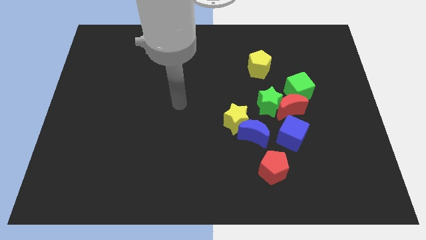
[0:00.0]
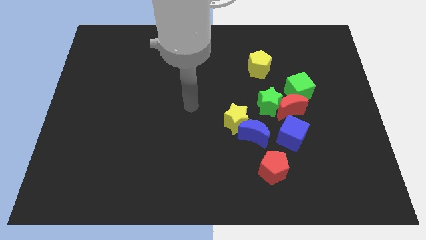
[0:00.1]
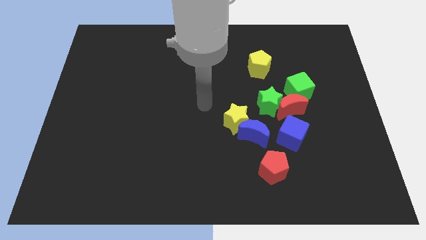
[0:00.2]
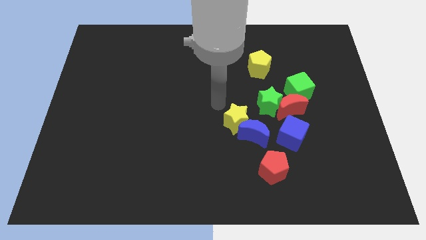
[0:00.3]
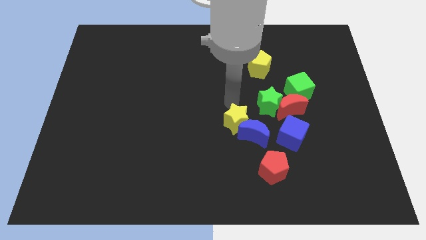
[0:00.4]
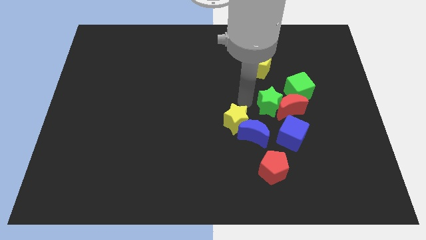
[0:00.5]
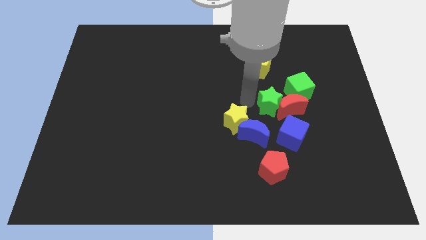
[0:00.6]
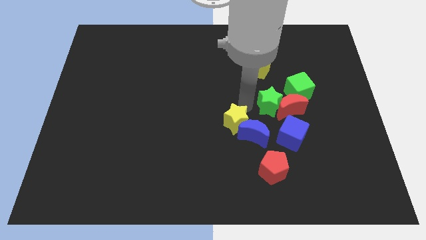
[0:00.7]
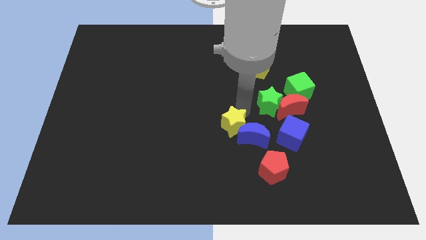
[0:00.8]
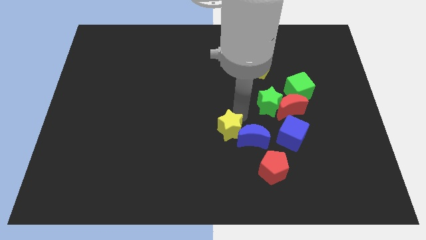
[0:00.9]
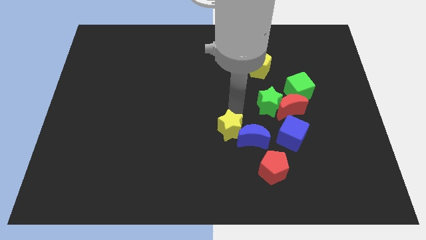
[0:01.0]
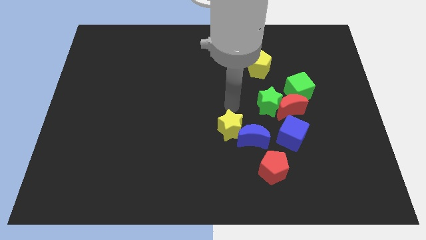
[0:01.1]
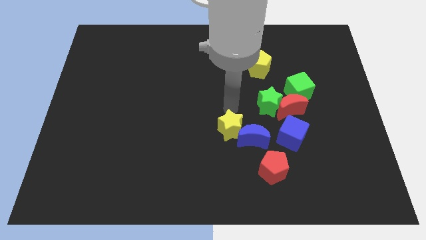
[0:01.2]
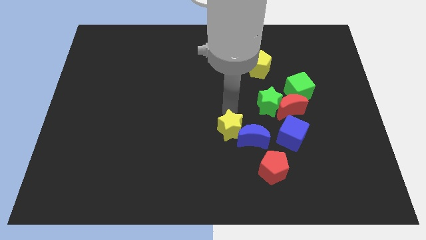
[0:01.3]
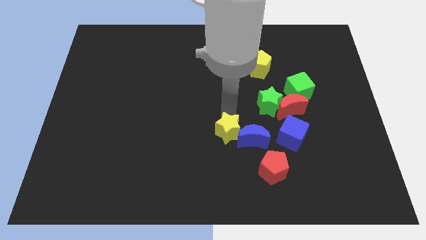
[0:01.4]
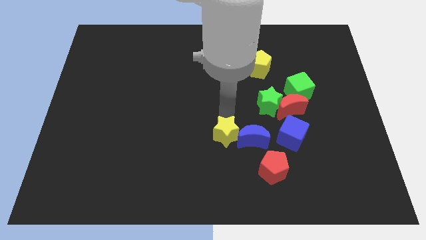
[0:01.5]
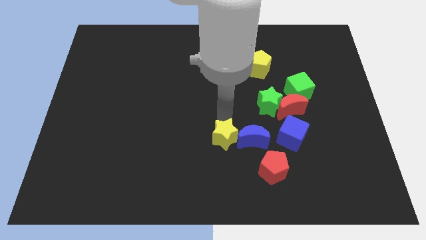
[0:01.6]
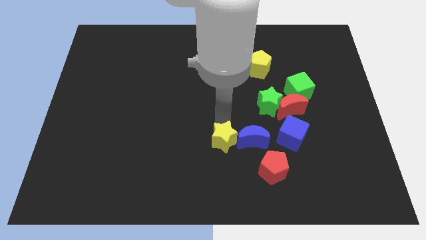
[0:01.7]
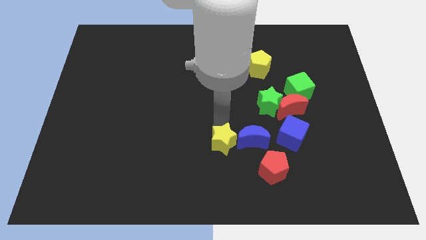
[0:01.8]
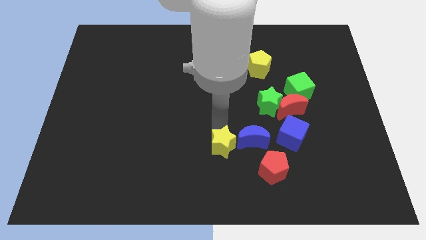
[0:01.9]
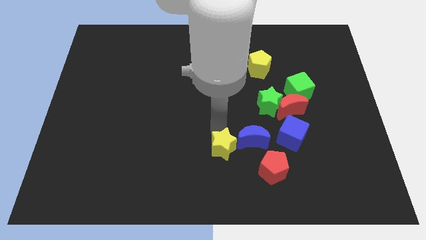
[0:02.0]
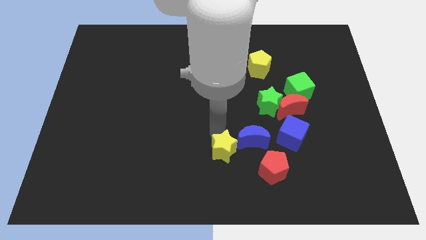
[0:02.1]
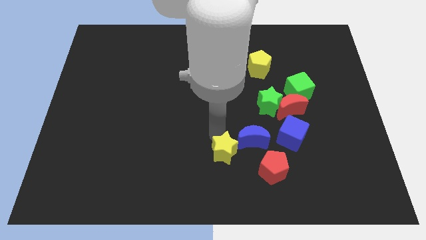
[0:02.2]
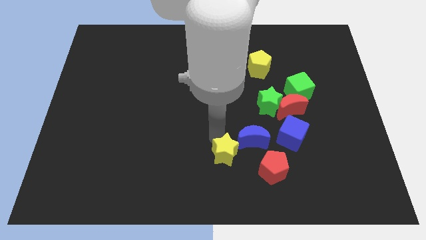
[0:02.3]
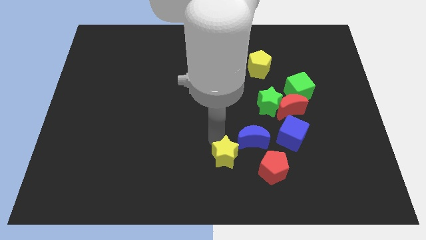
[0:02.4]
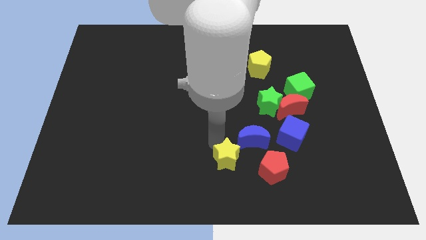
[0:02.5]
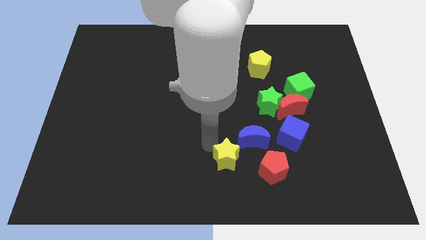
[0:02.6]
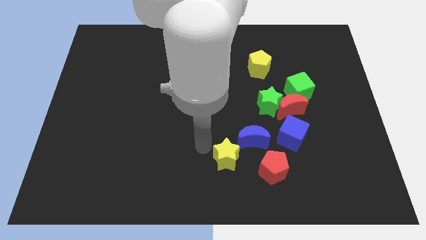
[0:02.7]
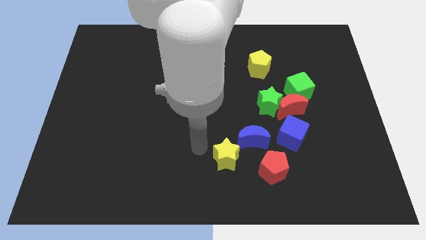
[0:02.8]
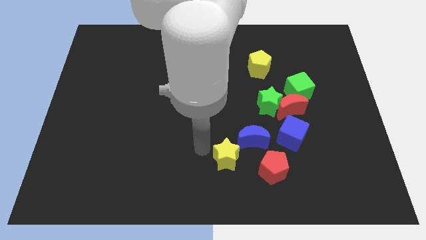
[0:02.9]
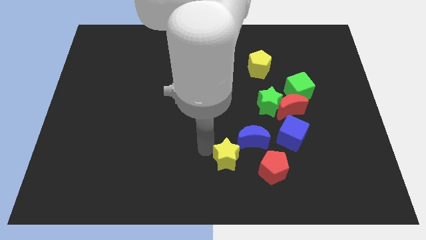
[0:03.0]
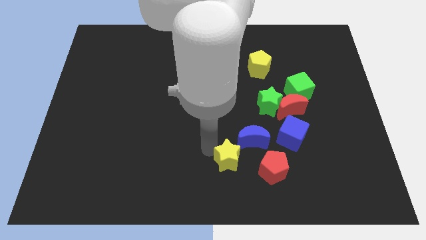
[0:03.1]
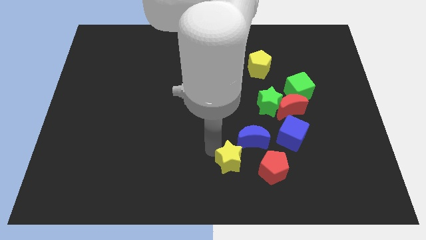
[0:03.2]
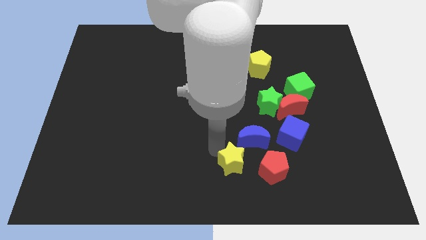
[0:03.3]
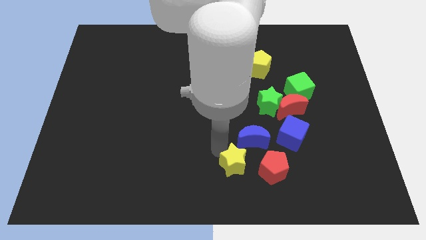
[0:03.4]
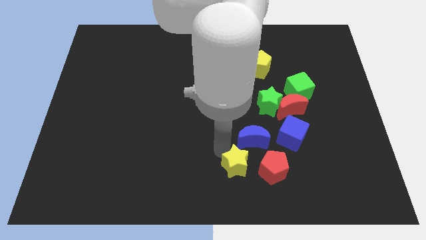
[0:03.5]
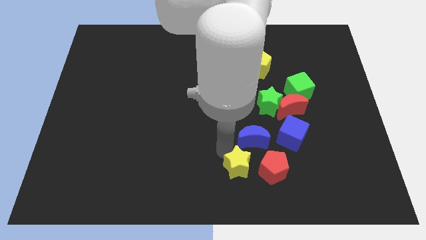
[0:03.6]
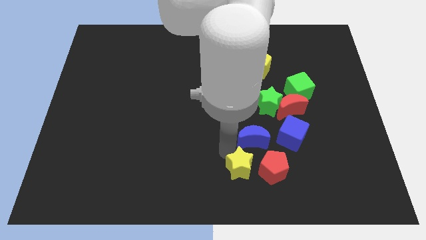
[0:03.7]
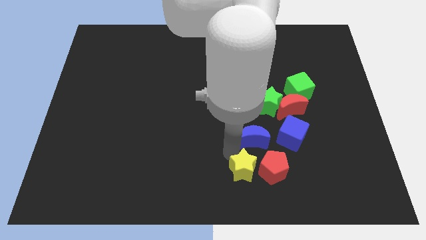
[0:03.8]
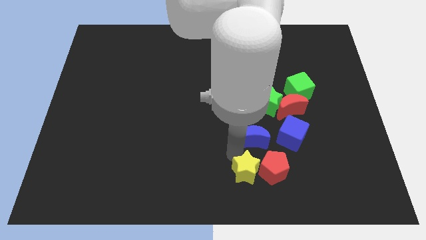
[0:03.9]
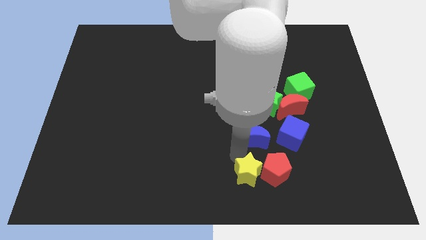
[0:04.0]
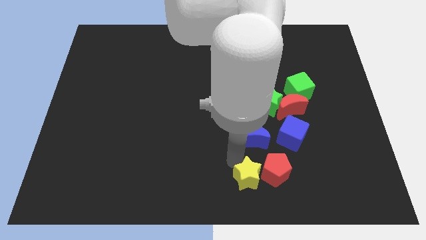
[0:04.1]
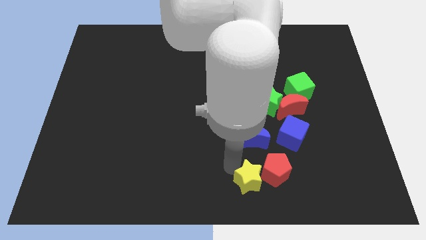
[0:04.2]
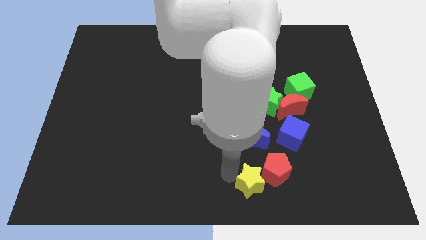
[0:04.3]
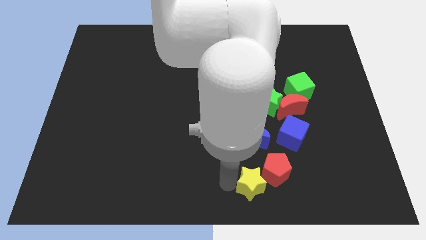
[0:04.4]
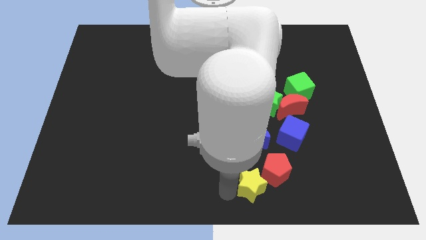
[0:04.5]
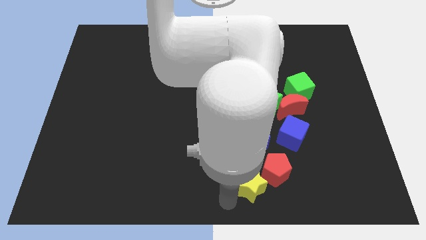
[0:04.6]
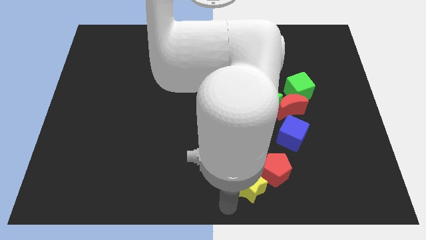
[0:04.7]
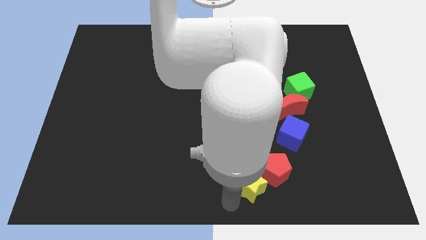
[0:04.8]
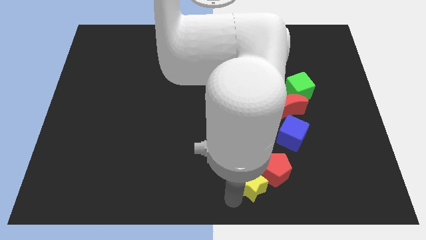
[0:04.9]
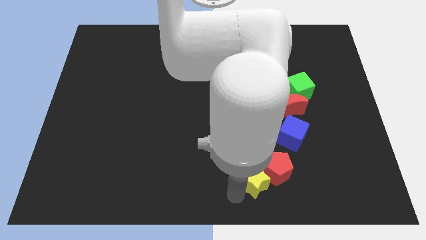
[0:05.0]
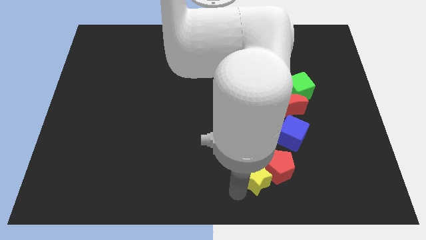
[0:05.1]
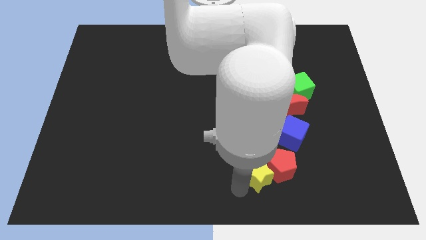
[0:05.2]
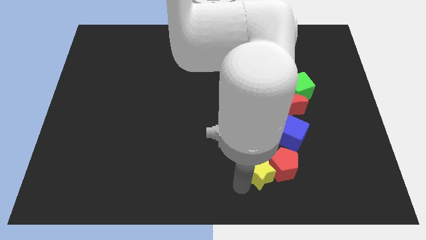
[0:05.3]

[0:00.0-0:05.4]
slide the yellow star to the bottom right side of the blue moon

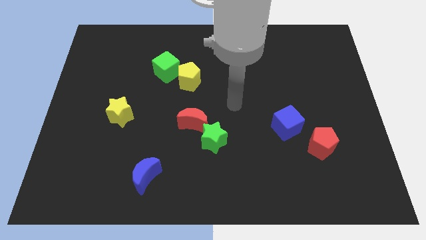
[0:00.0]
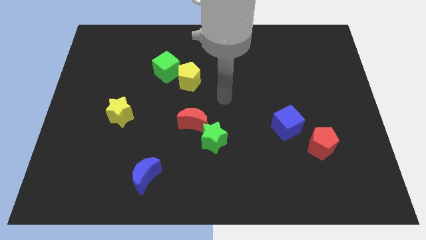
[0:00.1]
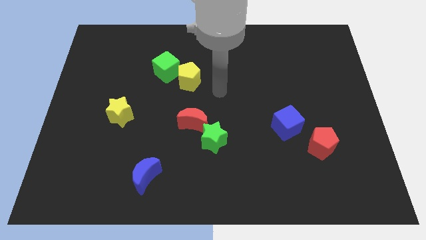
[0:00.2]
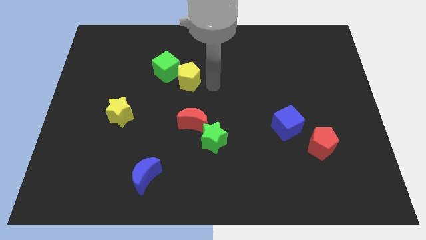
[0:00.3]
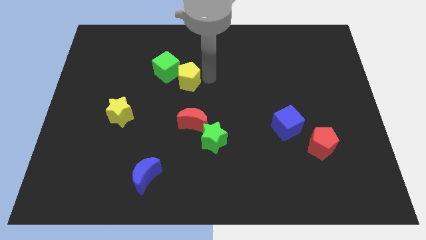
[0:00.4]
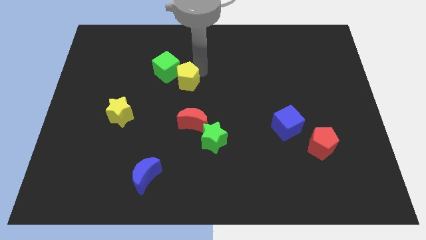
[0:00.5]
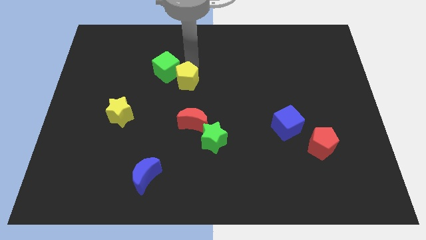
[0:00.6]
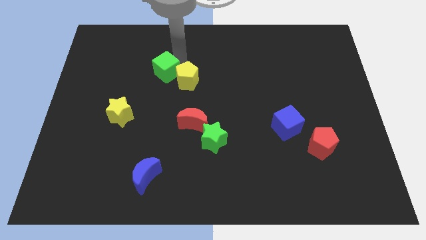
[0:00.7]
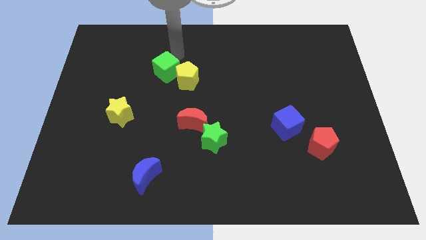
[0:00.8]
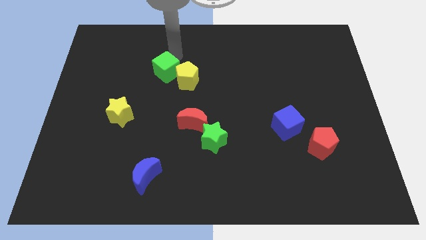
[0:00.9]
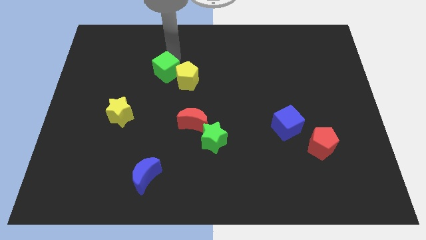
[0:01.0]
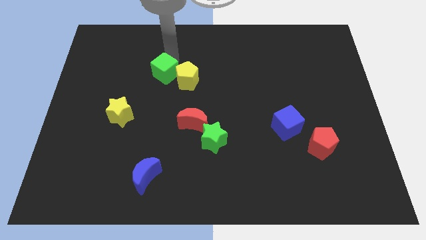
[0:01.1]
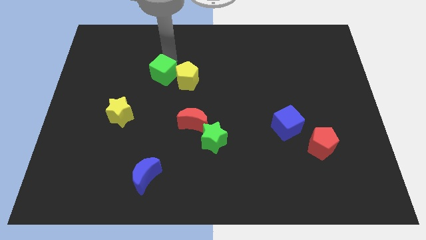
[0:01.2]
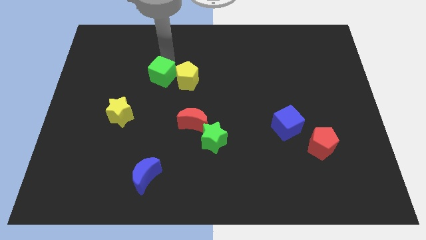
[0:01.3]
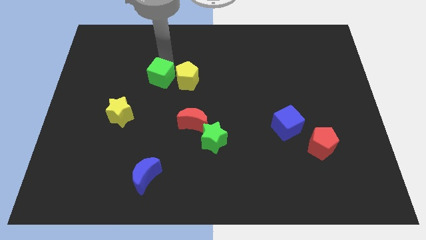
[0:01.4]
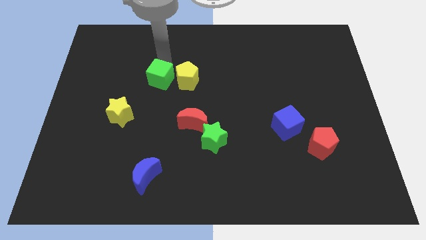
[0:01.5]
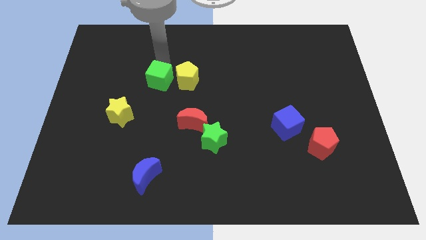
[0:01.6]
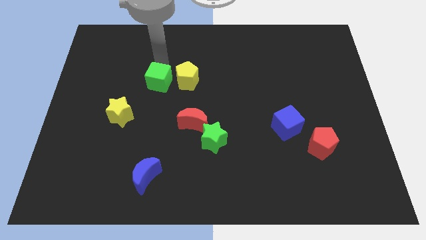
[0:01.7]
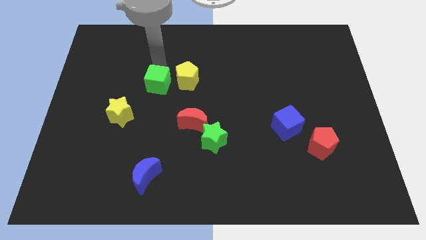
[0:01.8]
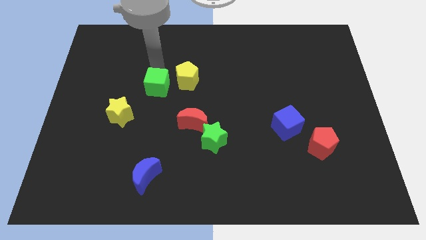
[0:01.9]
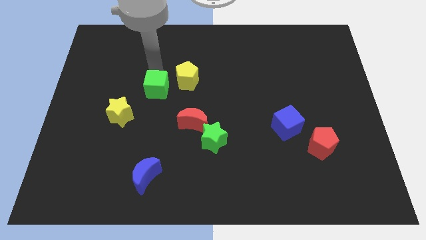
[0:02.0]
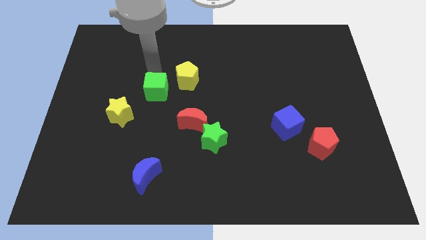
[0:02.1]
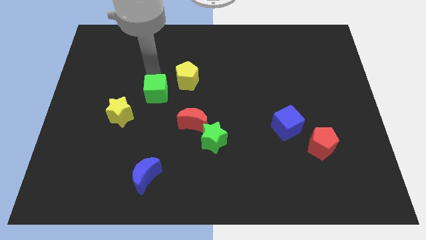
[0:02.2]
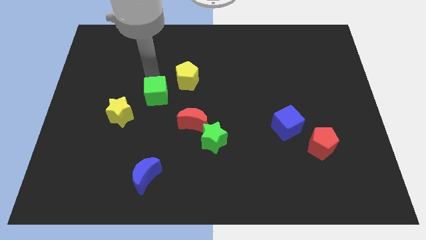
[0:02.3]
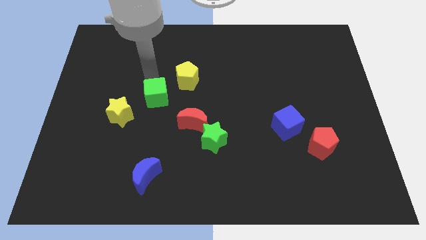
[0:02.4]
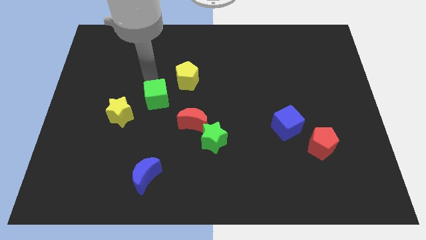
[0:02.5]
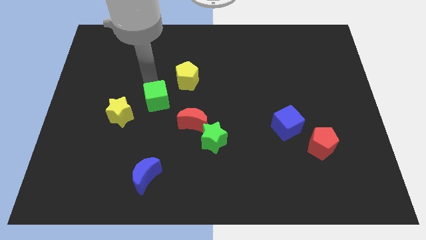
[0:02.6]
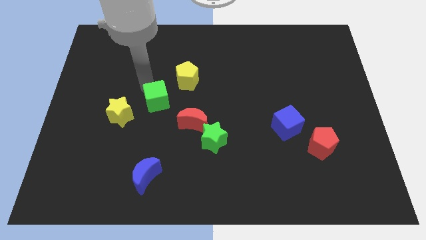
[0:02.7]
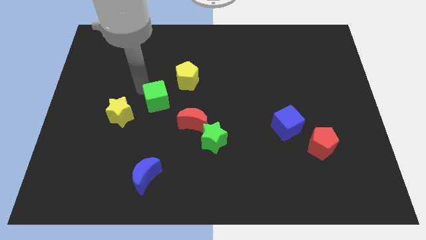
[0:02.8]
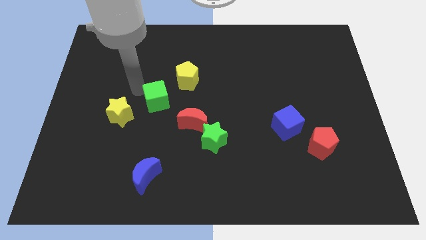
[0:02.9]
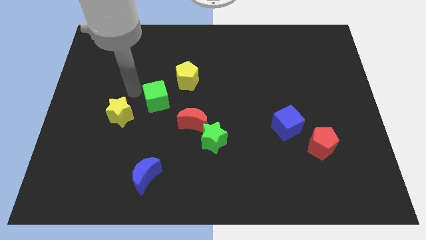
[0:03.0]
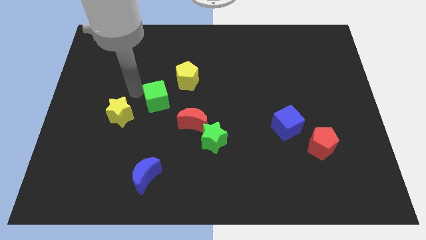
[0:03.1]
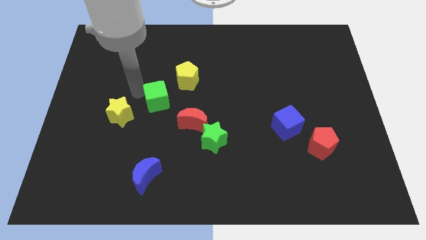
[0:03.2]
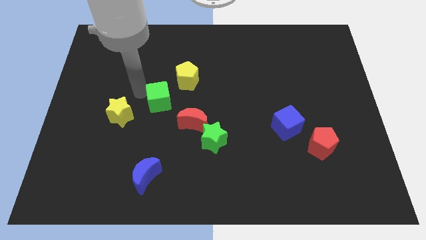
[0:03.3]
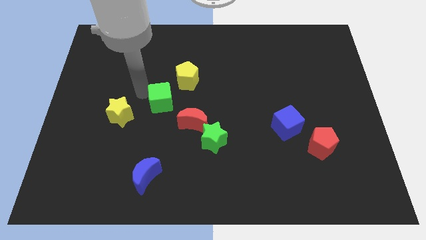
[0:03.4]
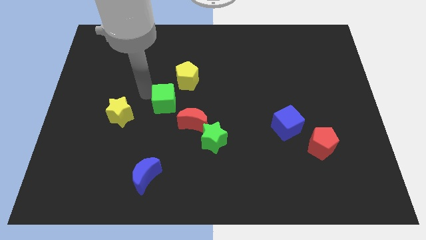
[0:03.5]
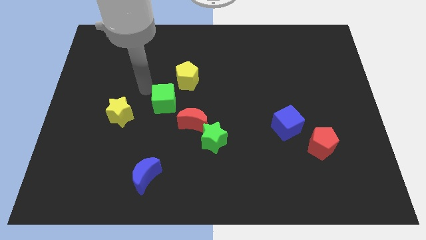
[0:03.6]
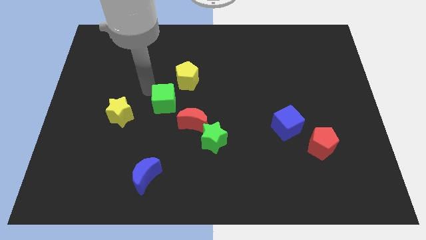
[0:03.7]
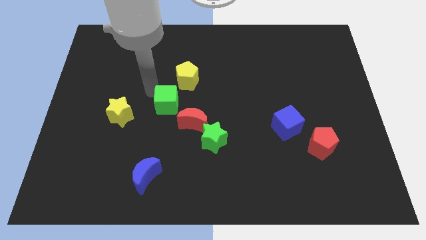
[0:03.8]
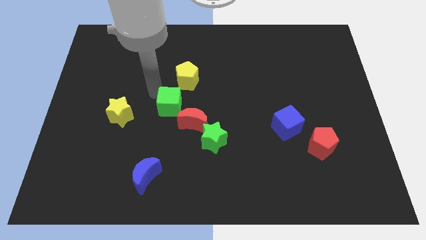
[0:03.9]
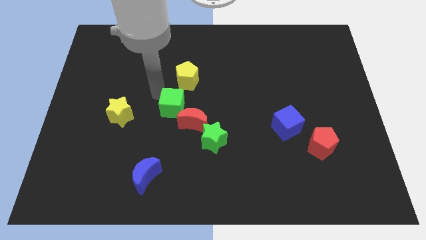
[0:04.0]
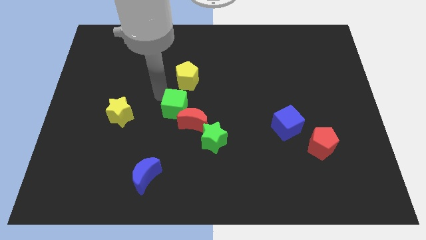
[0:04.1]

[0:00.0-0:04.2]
push the green cube diagonally up and to the left of the green star
